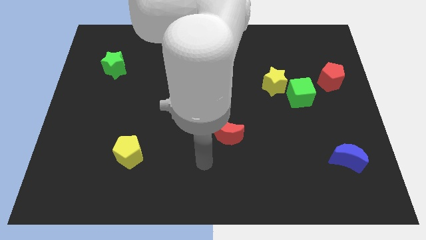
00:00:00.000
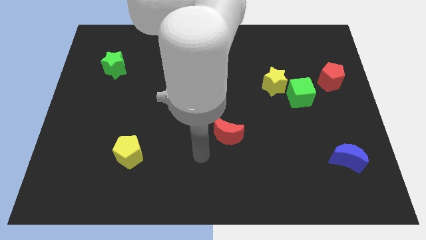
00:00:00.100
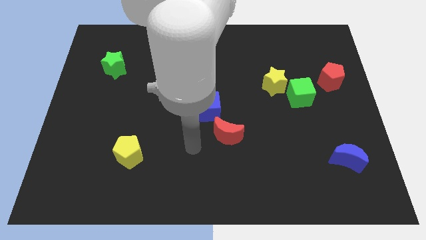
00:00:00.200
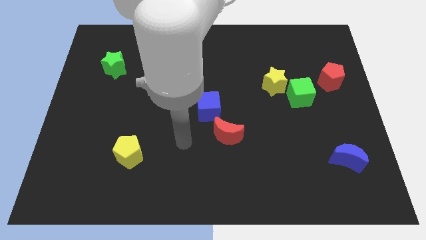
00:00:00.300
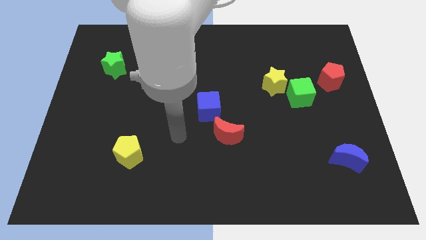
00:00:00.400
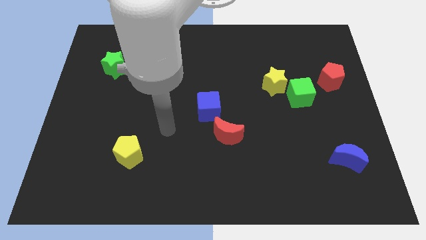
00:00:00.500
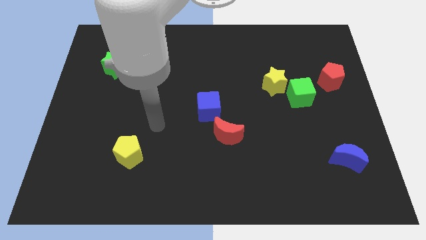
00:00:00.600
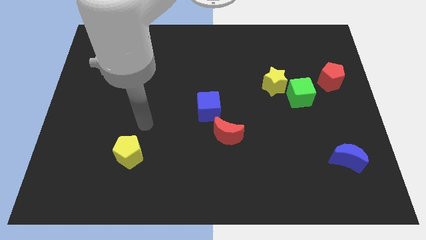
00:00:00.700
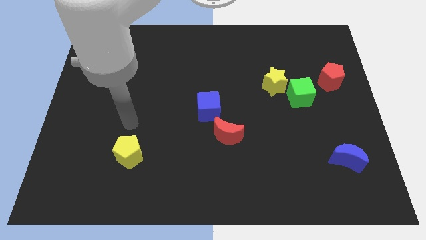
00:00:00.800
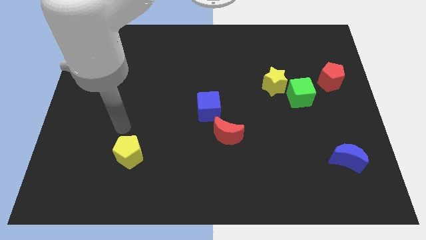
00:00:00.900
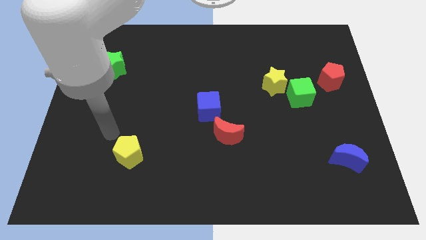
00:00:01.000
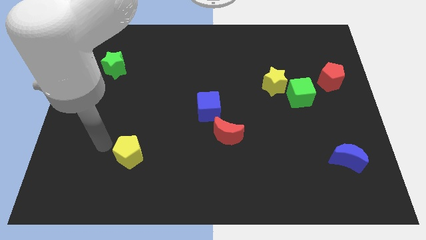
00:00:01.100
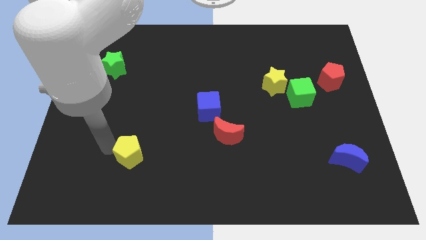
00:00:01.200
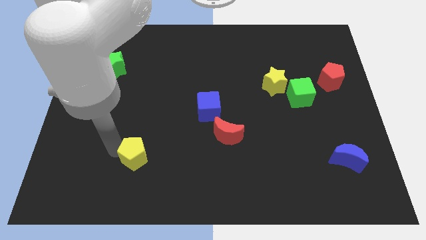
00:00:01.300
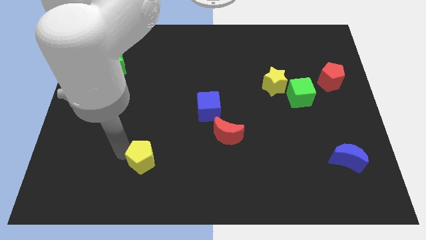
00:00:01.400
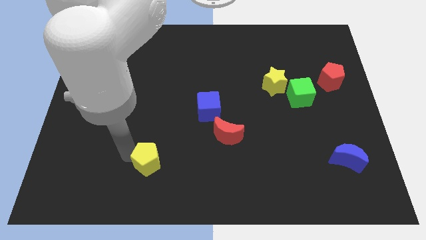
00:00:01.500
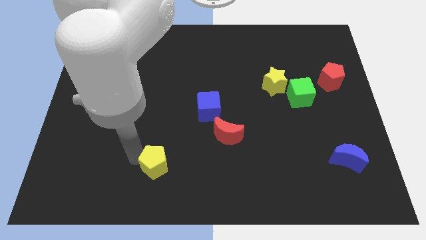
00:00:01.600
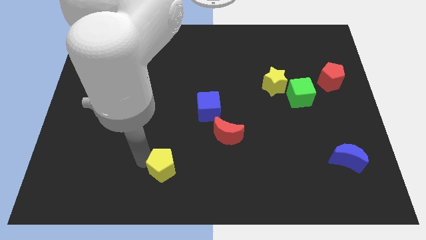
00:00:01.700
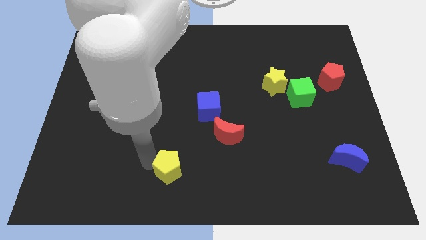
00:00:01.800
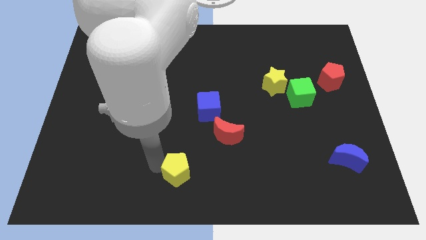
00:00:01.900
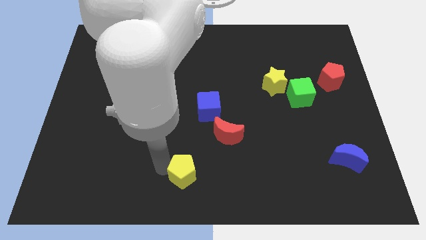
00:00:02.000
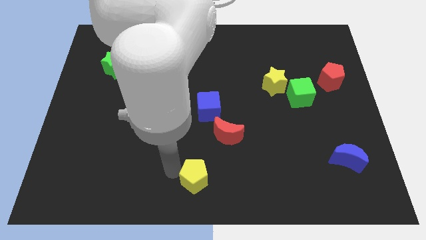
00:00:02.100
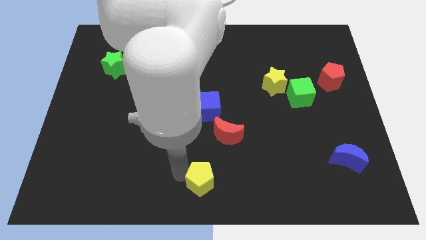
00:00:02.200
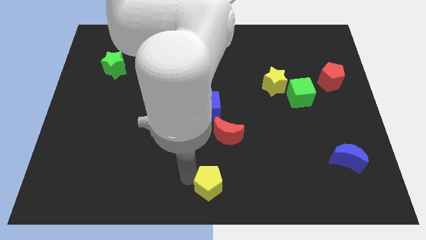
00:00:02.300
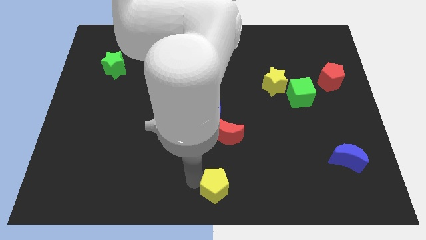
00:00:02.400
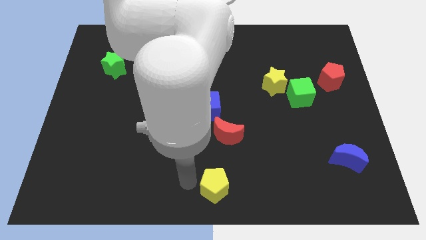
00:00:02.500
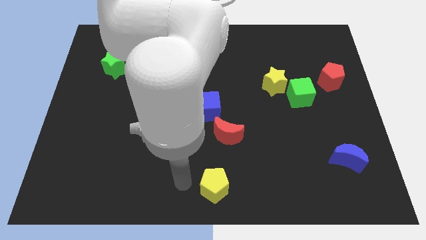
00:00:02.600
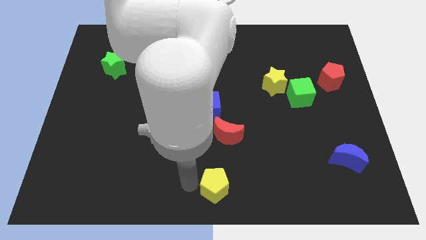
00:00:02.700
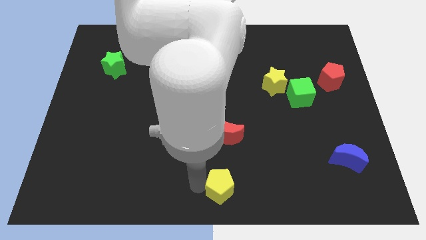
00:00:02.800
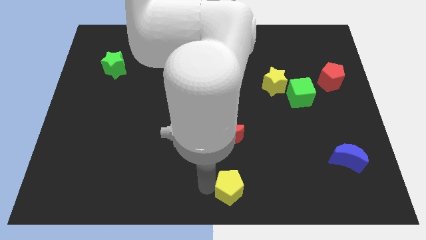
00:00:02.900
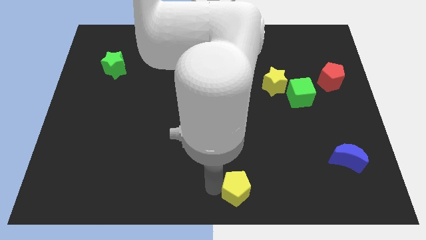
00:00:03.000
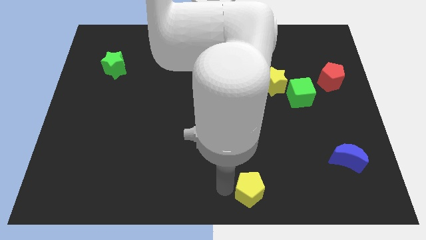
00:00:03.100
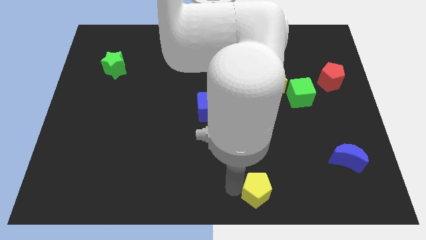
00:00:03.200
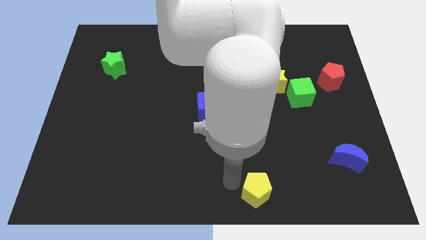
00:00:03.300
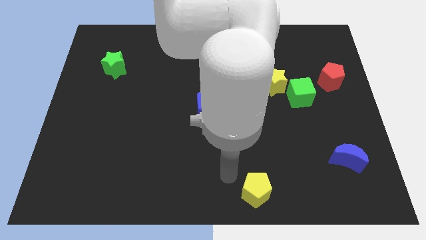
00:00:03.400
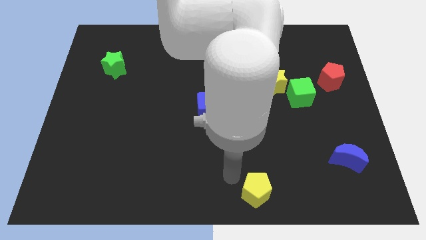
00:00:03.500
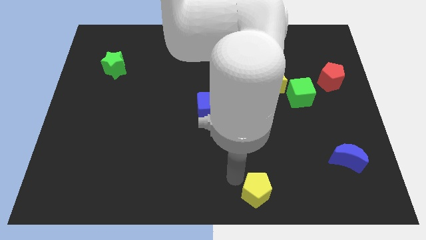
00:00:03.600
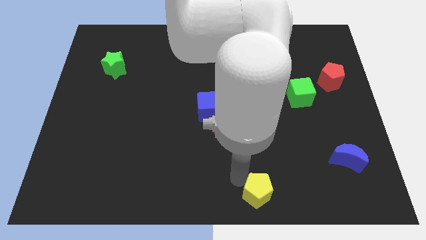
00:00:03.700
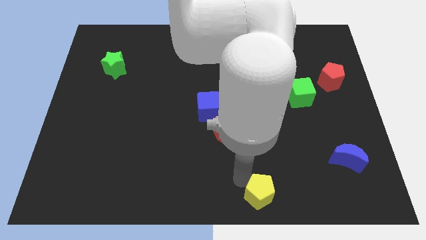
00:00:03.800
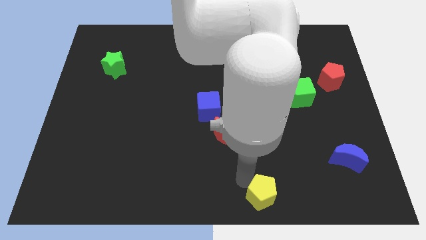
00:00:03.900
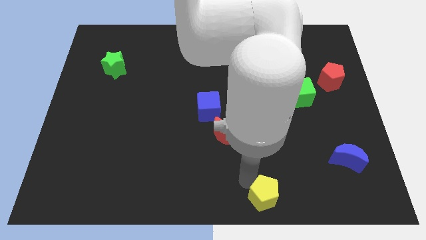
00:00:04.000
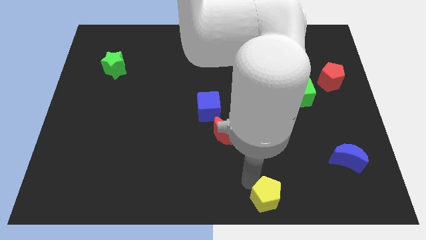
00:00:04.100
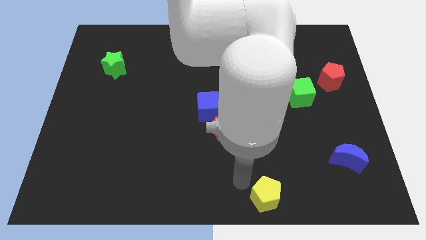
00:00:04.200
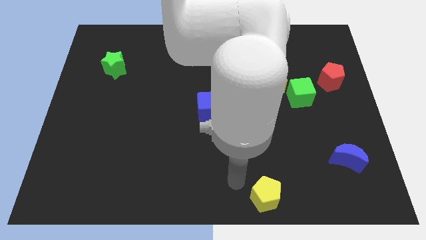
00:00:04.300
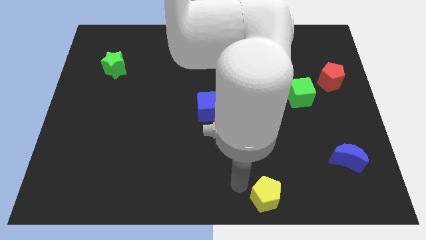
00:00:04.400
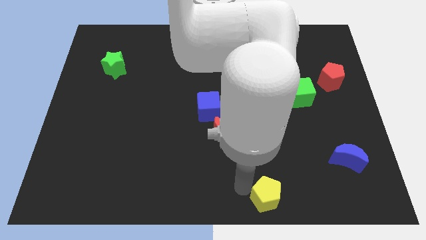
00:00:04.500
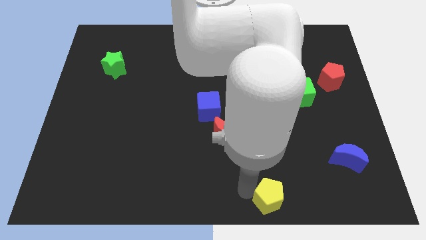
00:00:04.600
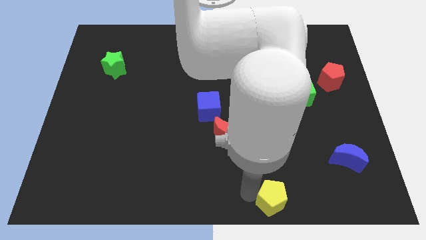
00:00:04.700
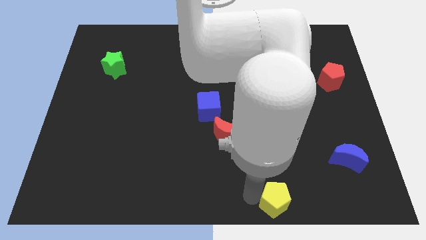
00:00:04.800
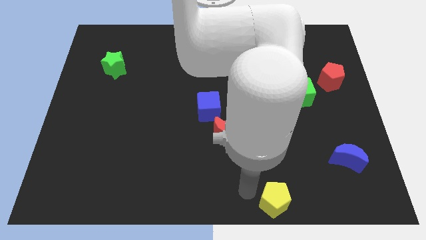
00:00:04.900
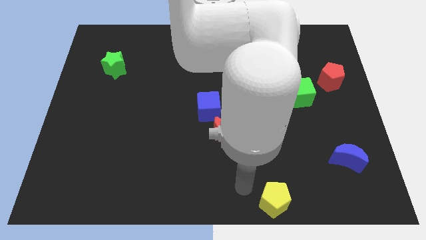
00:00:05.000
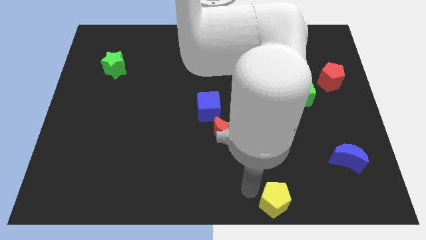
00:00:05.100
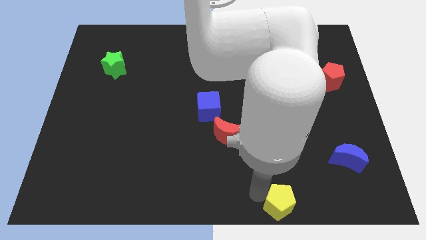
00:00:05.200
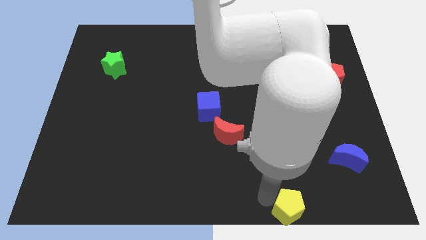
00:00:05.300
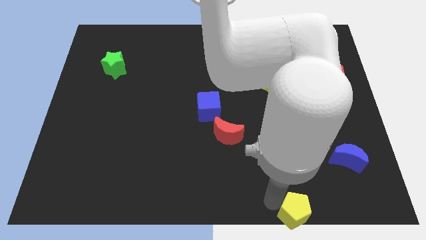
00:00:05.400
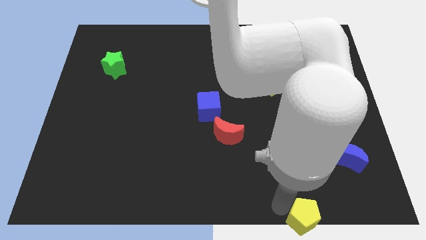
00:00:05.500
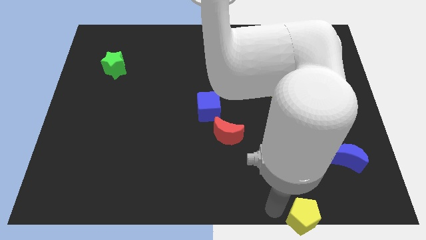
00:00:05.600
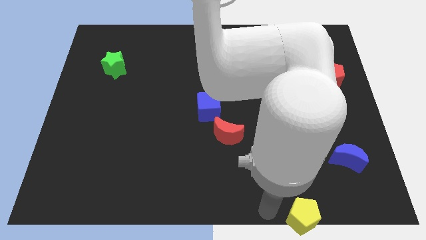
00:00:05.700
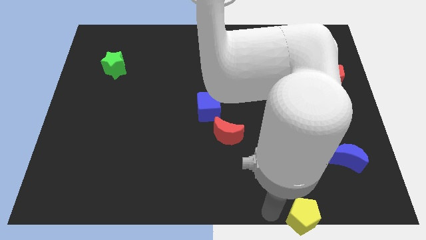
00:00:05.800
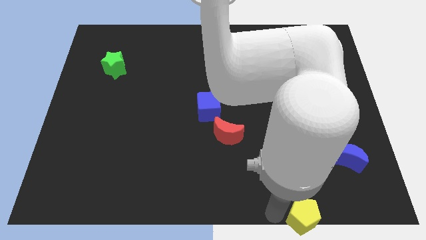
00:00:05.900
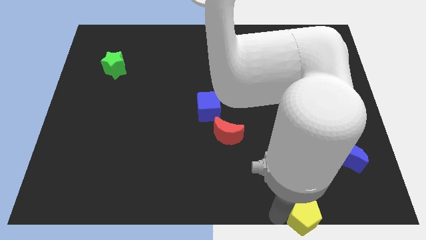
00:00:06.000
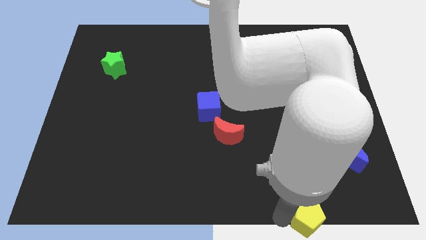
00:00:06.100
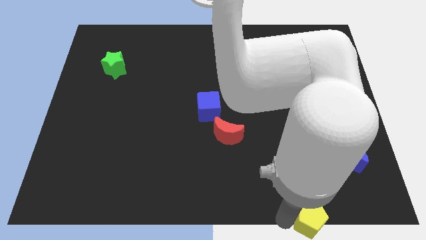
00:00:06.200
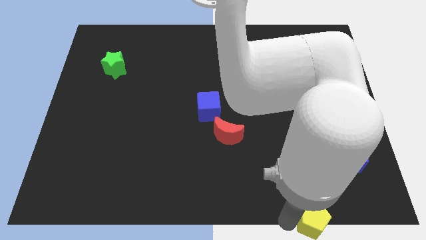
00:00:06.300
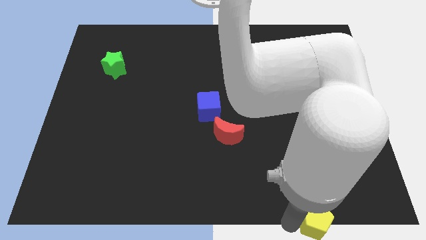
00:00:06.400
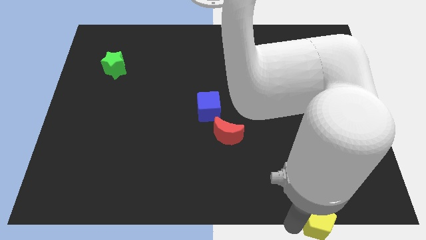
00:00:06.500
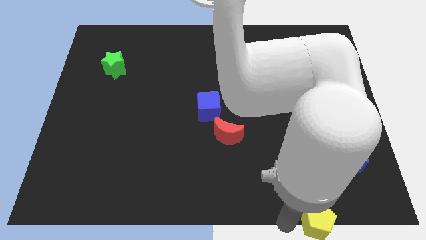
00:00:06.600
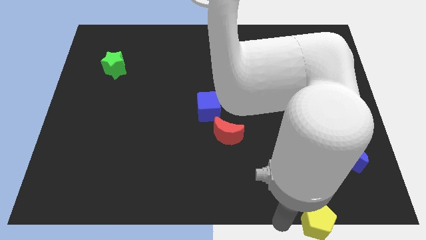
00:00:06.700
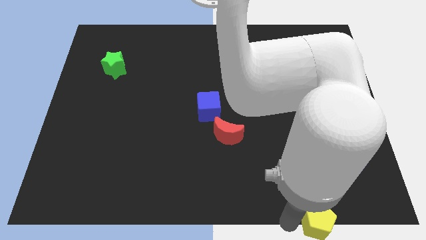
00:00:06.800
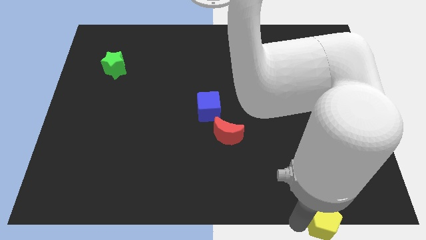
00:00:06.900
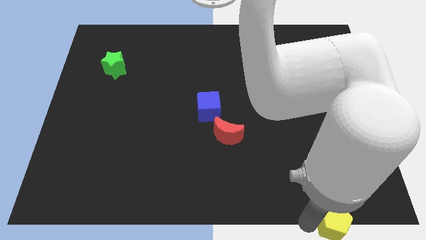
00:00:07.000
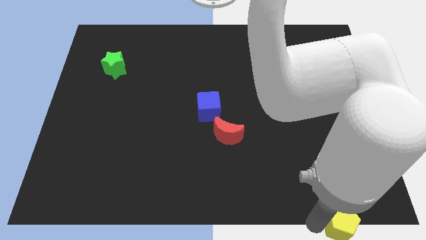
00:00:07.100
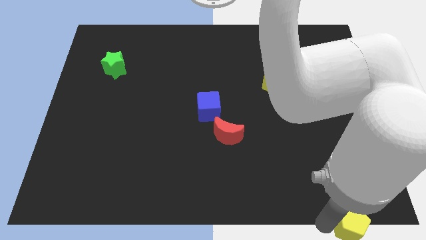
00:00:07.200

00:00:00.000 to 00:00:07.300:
put the yellow pentagon to the lower right corner
